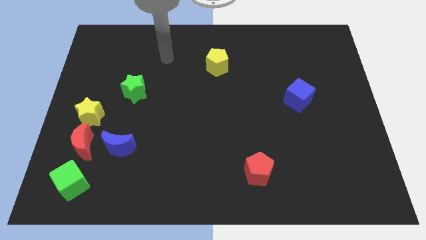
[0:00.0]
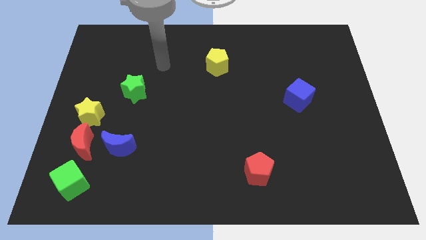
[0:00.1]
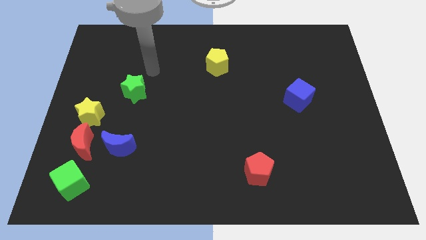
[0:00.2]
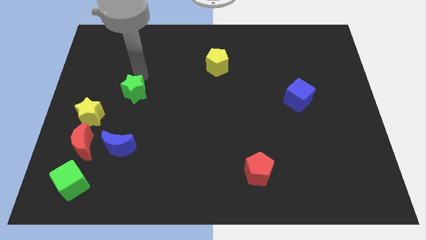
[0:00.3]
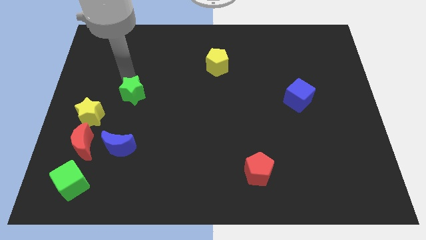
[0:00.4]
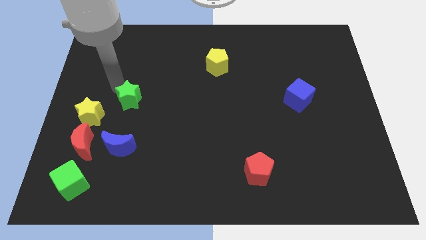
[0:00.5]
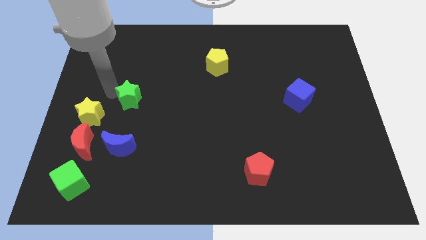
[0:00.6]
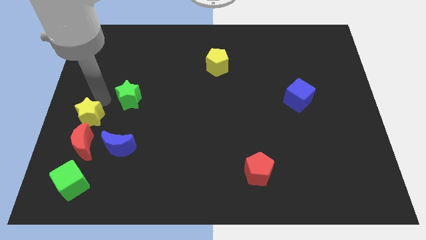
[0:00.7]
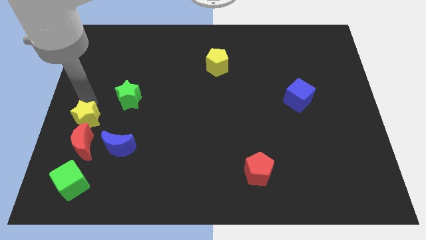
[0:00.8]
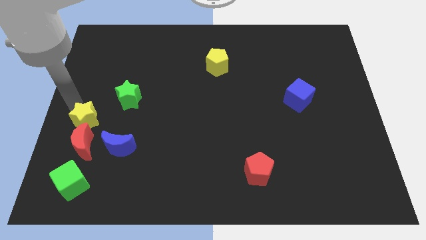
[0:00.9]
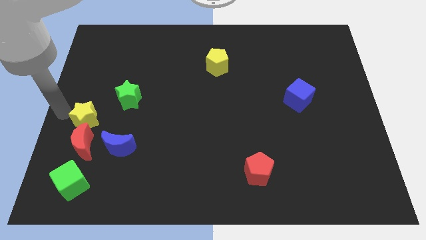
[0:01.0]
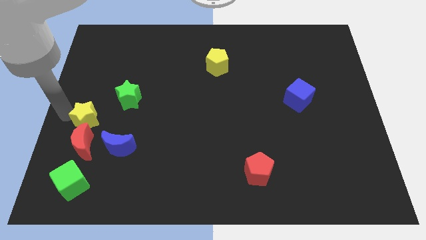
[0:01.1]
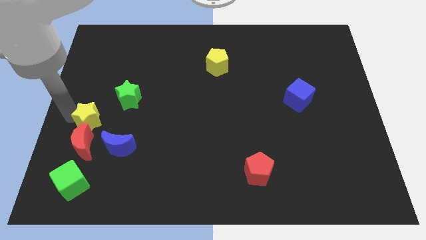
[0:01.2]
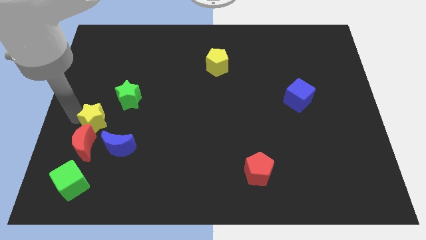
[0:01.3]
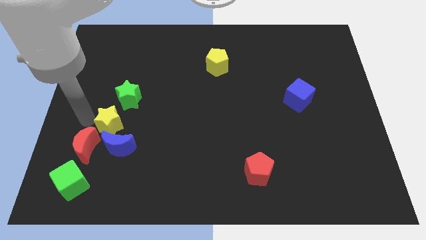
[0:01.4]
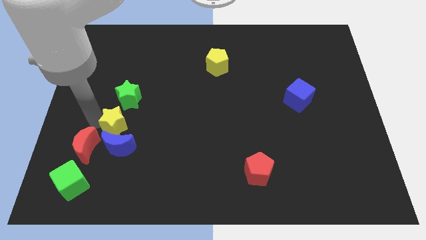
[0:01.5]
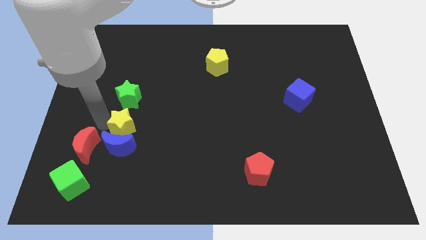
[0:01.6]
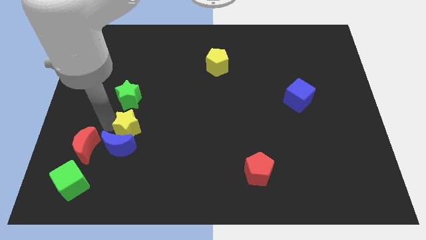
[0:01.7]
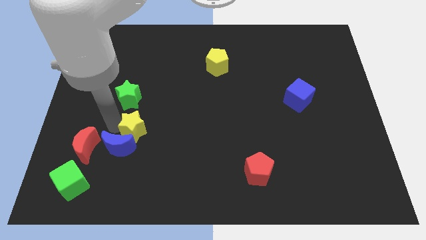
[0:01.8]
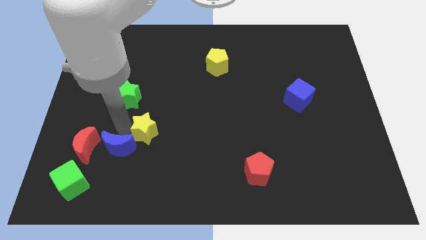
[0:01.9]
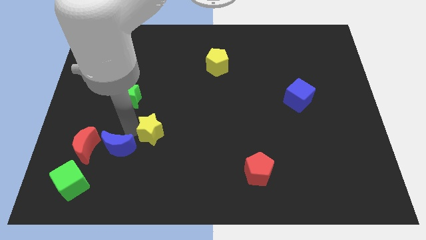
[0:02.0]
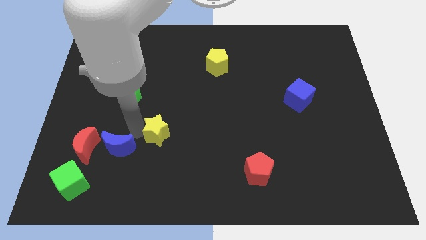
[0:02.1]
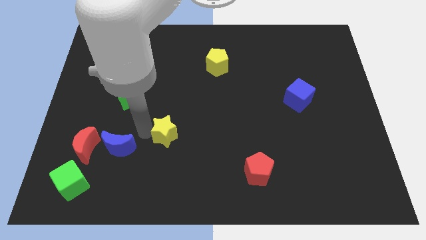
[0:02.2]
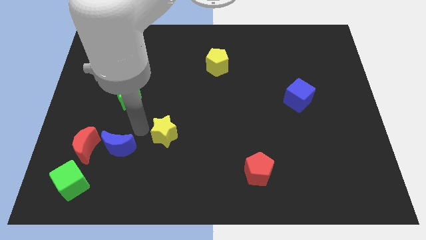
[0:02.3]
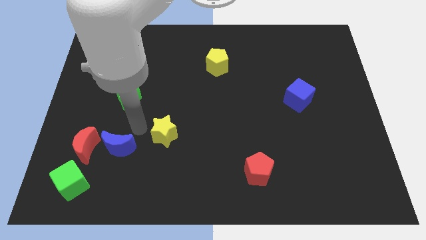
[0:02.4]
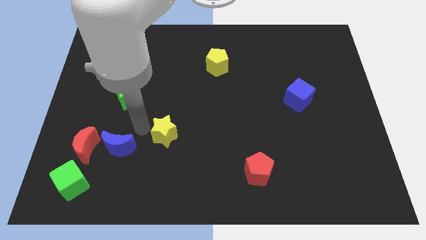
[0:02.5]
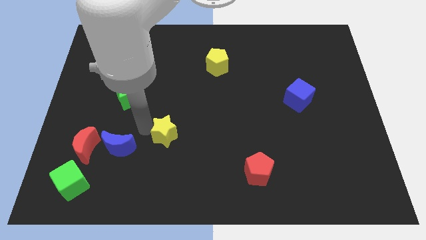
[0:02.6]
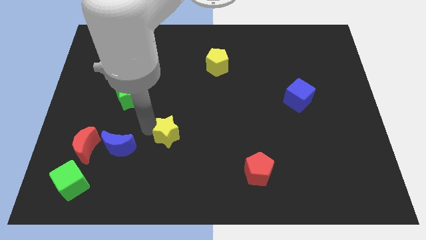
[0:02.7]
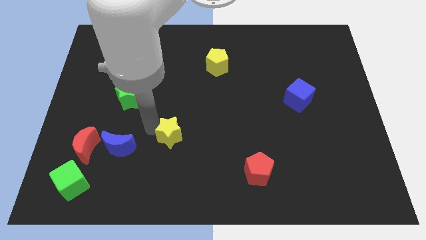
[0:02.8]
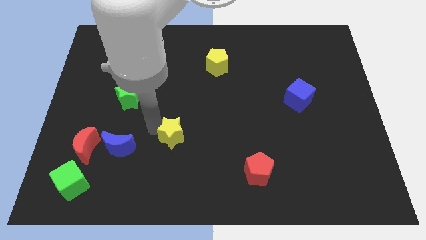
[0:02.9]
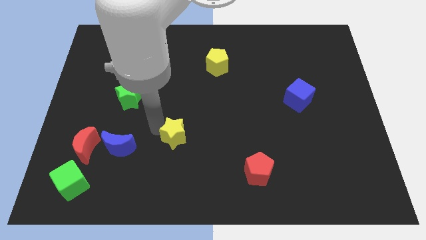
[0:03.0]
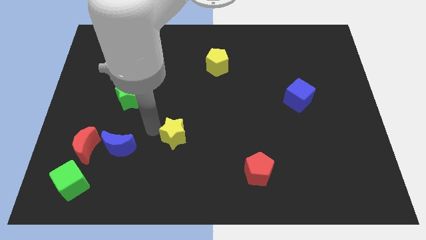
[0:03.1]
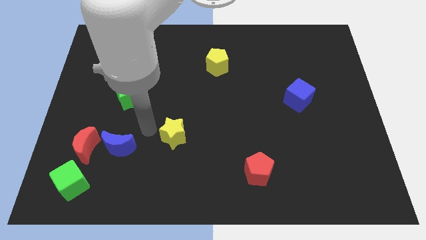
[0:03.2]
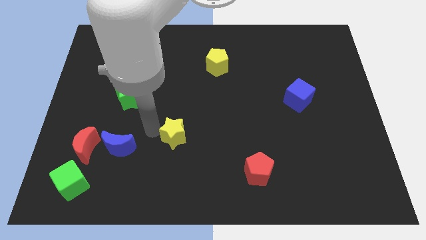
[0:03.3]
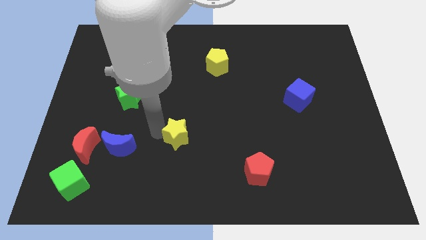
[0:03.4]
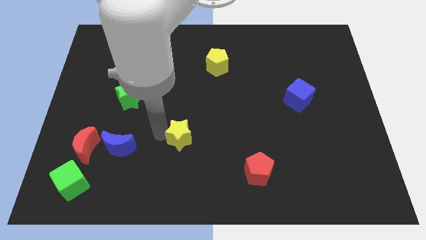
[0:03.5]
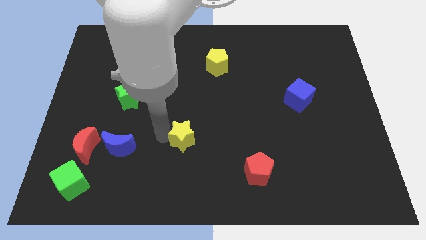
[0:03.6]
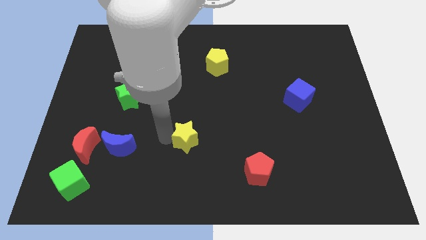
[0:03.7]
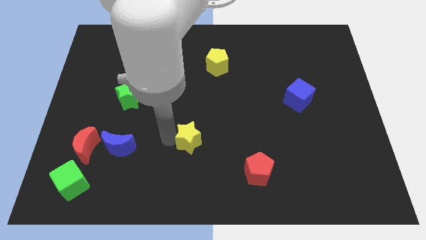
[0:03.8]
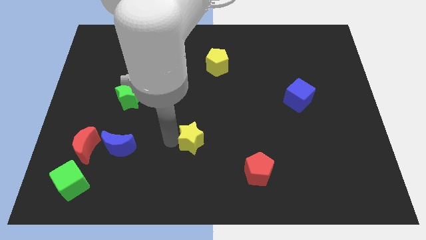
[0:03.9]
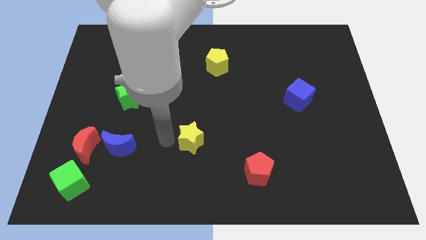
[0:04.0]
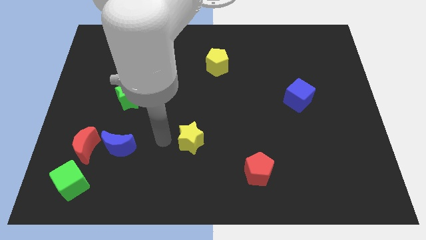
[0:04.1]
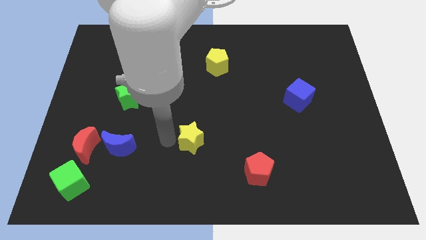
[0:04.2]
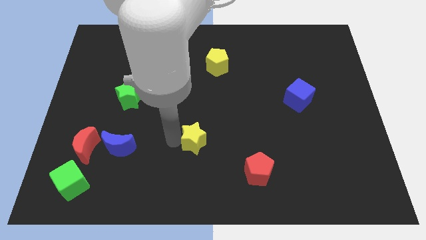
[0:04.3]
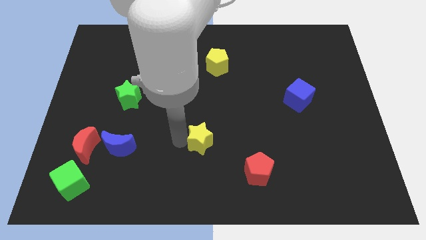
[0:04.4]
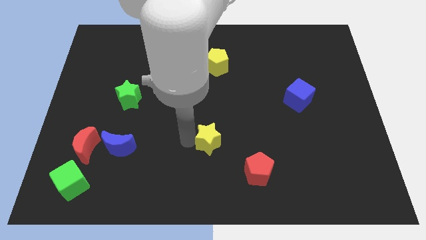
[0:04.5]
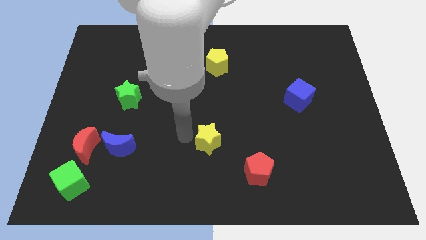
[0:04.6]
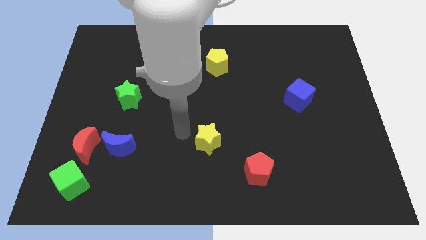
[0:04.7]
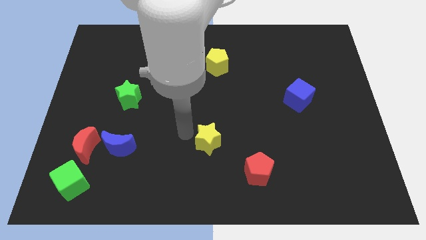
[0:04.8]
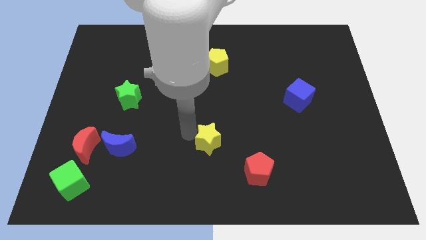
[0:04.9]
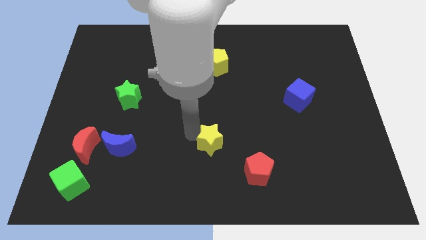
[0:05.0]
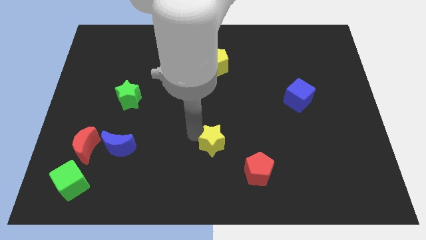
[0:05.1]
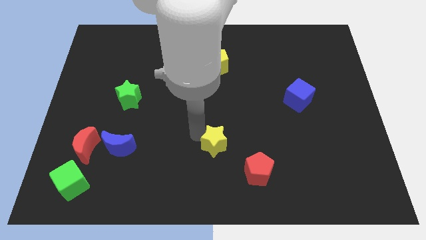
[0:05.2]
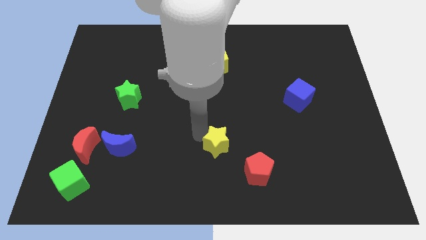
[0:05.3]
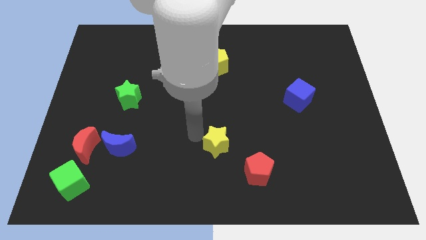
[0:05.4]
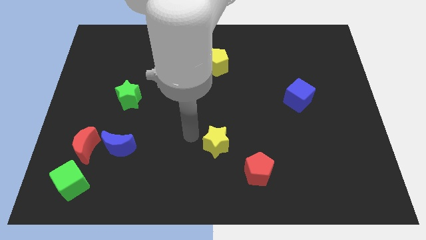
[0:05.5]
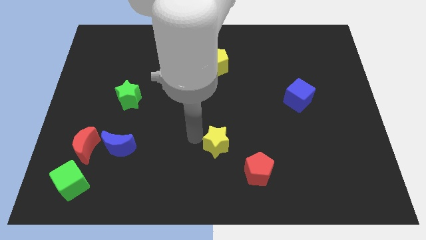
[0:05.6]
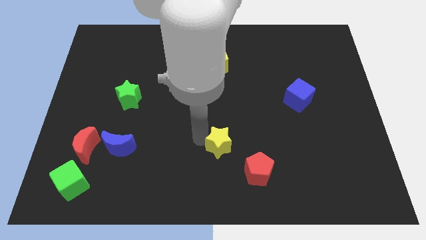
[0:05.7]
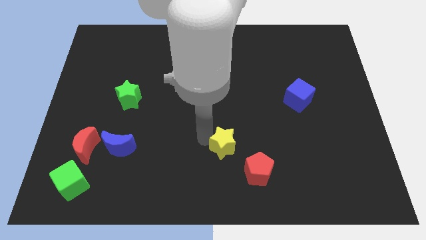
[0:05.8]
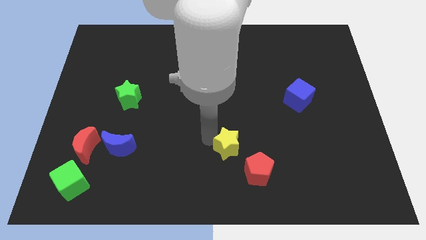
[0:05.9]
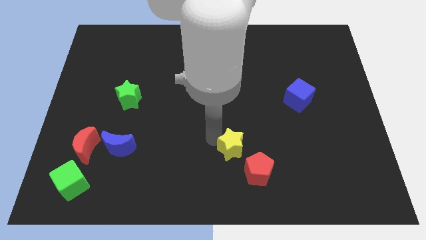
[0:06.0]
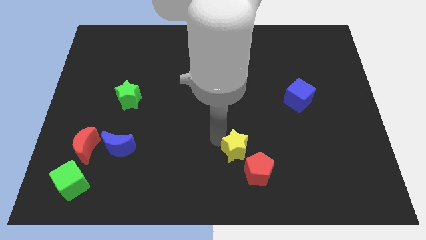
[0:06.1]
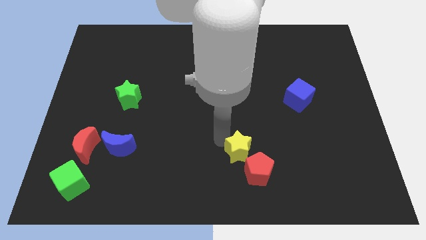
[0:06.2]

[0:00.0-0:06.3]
move the yellow star next to the red pentagon

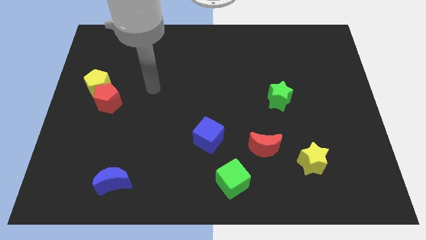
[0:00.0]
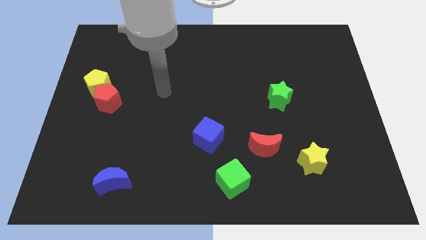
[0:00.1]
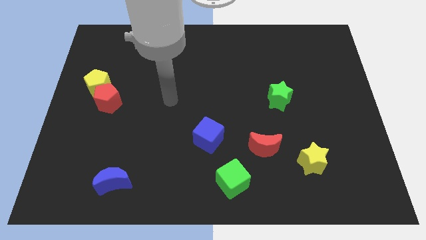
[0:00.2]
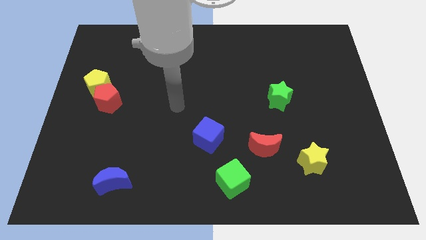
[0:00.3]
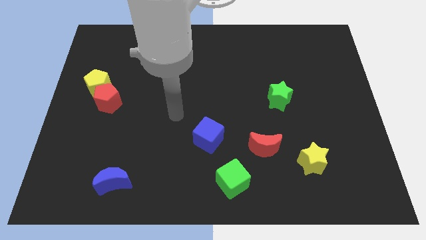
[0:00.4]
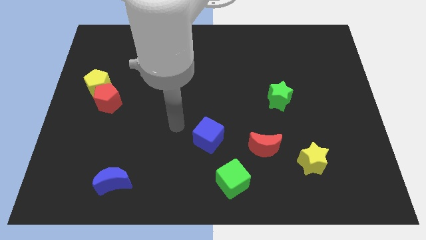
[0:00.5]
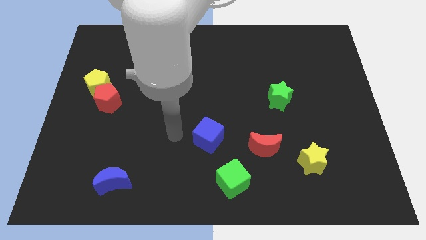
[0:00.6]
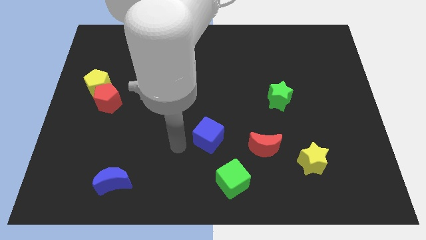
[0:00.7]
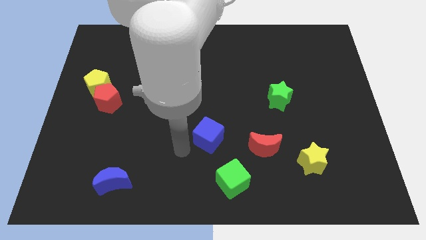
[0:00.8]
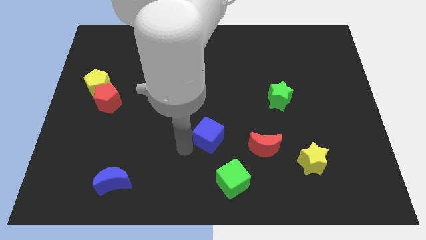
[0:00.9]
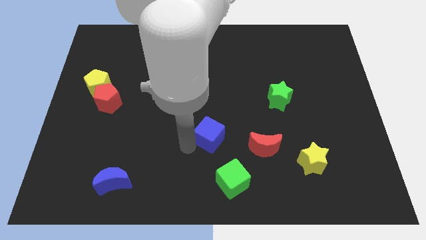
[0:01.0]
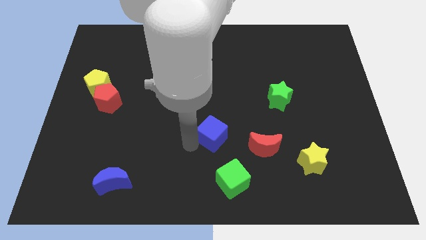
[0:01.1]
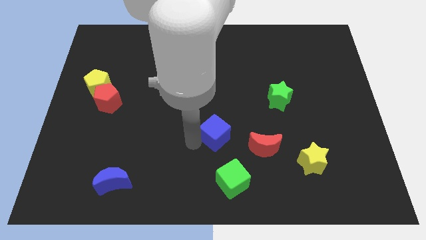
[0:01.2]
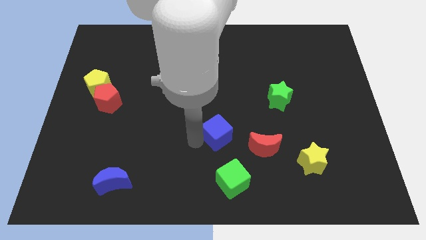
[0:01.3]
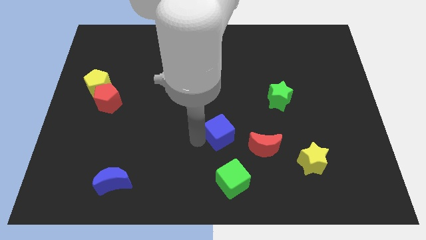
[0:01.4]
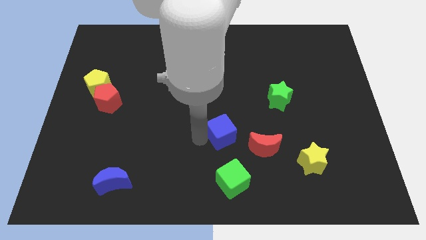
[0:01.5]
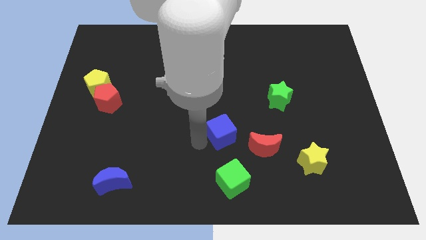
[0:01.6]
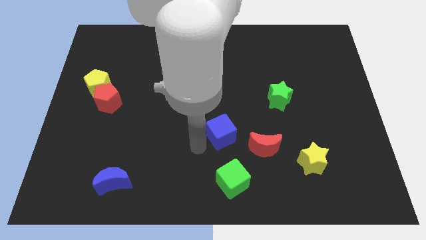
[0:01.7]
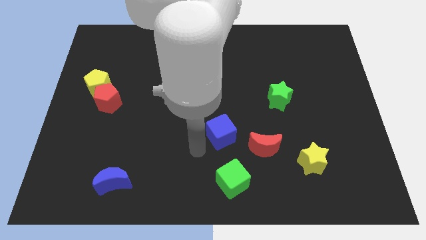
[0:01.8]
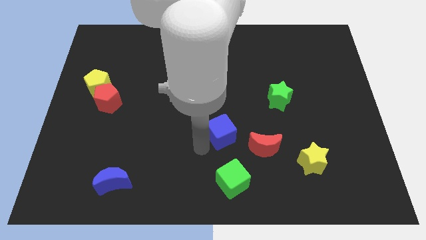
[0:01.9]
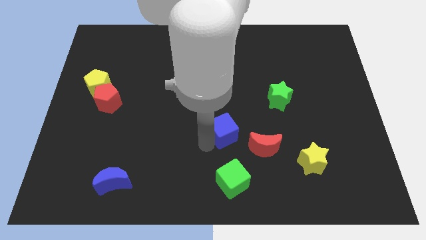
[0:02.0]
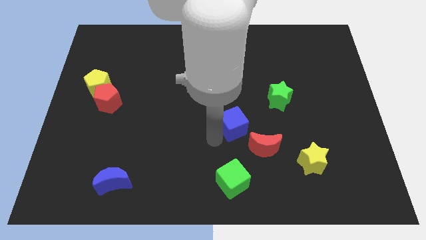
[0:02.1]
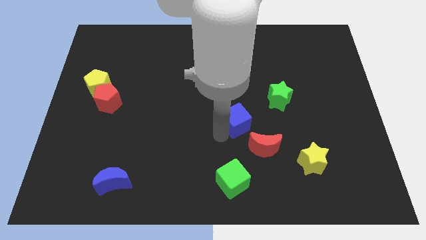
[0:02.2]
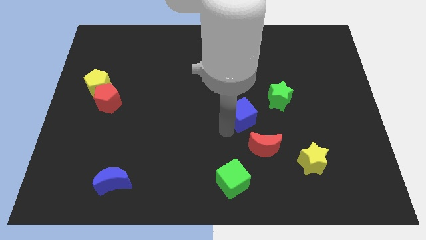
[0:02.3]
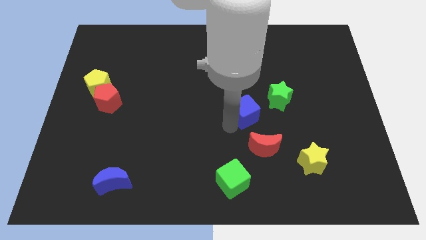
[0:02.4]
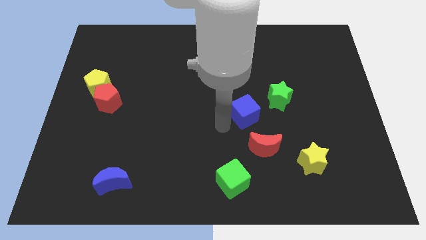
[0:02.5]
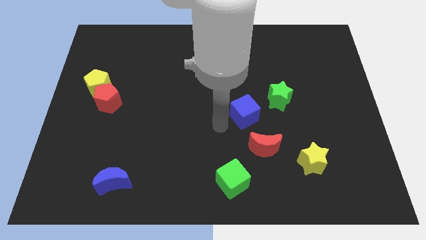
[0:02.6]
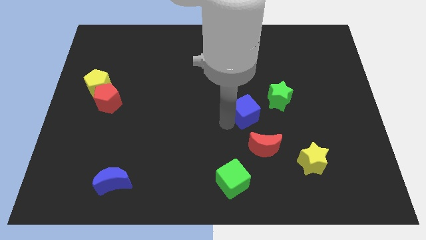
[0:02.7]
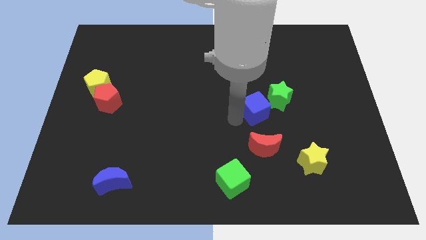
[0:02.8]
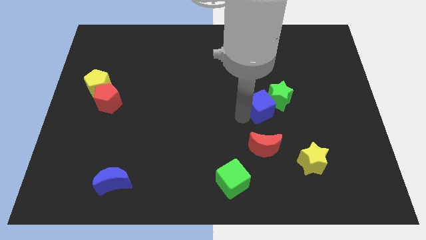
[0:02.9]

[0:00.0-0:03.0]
push the blue cube next to the green star
